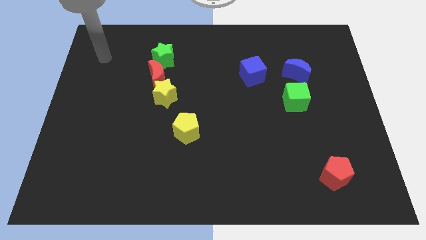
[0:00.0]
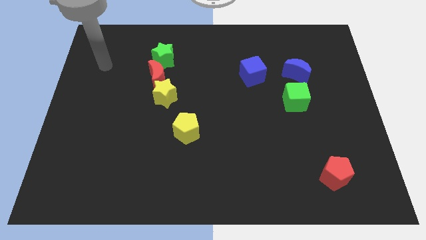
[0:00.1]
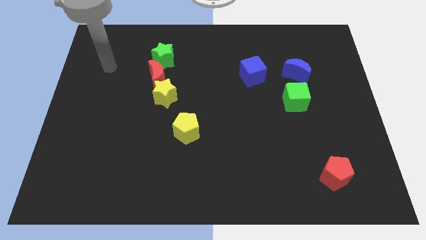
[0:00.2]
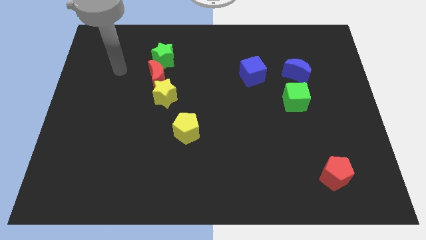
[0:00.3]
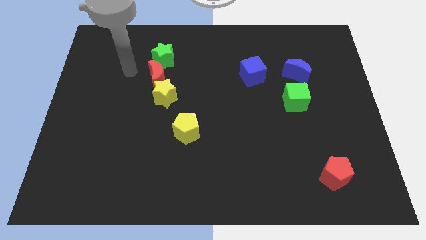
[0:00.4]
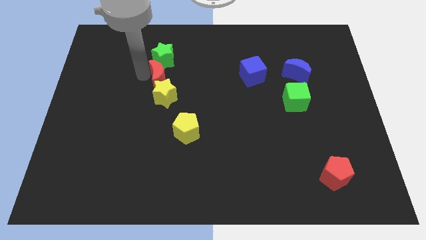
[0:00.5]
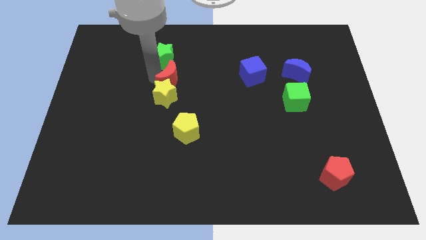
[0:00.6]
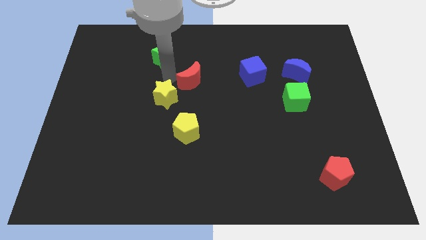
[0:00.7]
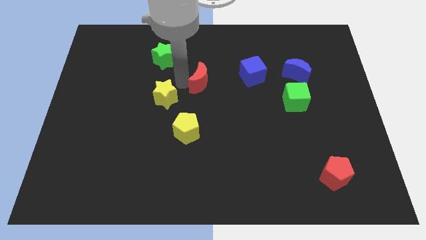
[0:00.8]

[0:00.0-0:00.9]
separate the yellow star from the red moon

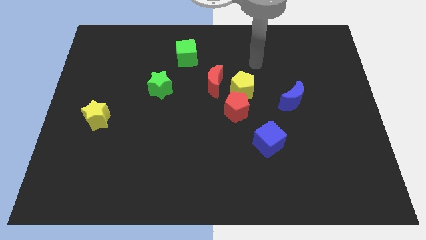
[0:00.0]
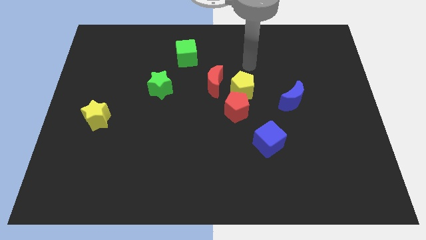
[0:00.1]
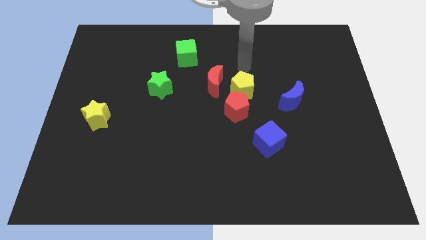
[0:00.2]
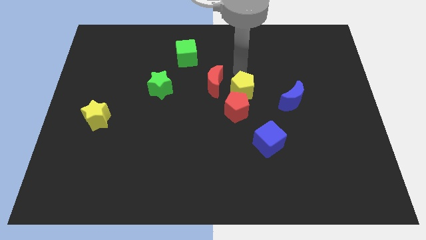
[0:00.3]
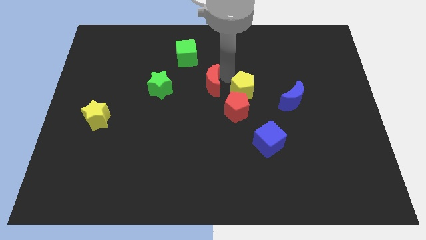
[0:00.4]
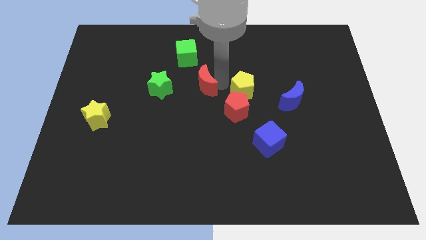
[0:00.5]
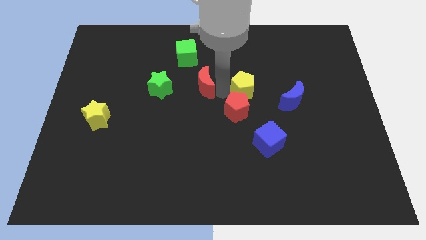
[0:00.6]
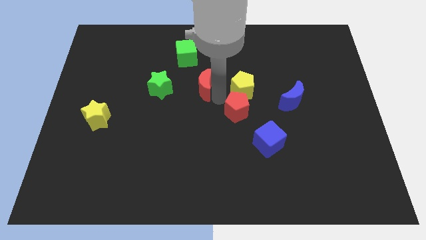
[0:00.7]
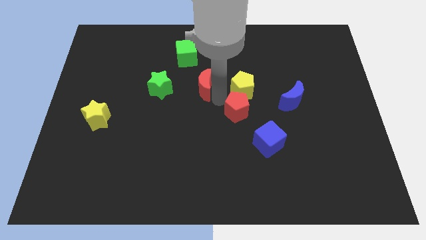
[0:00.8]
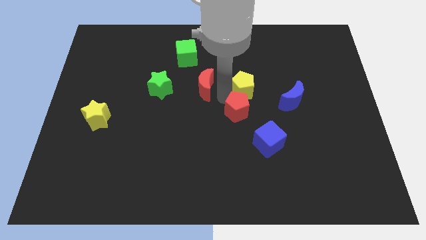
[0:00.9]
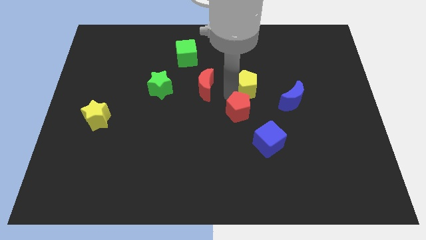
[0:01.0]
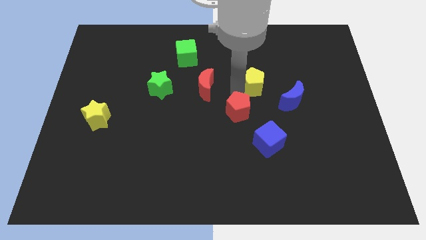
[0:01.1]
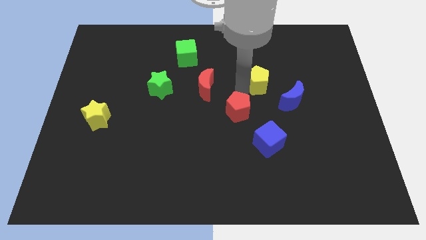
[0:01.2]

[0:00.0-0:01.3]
pull the yellow pentagon apart from the red pentagon and red moon

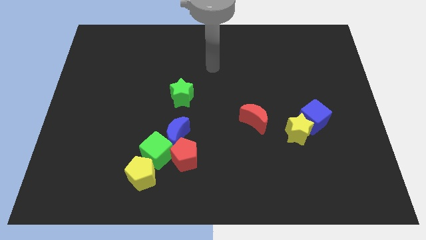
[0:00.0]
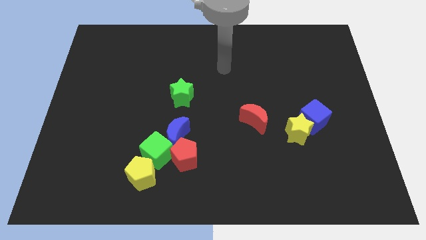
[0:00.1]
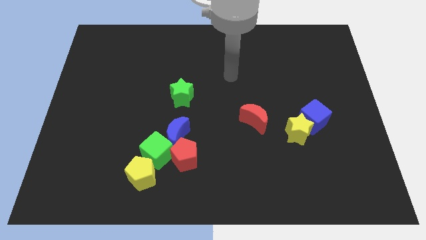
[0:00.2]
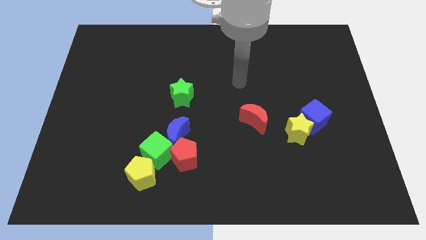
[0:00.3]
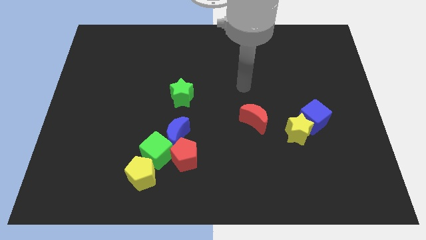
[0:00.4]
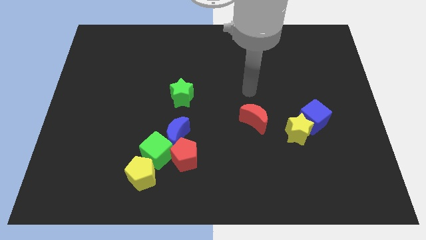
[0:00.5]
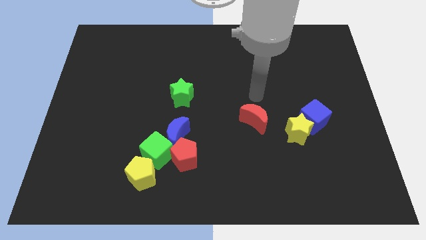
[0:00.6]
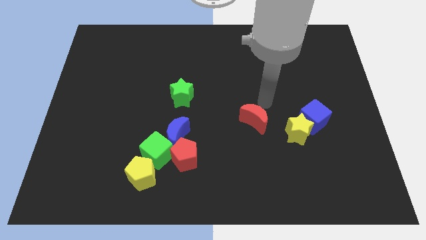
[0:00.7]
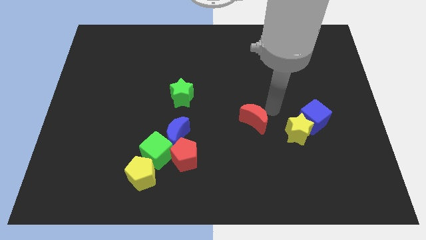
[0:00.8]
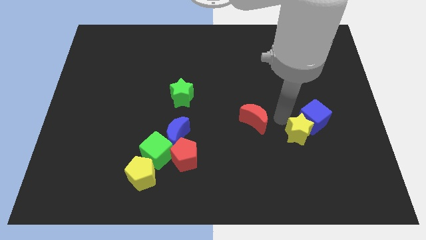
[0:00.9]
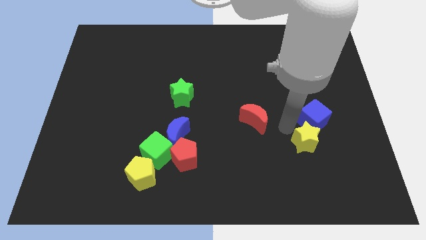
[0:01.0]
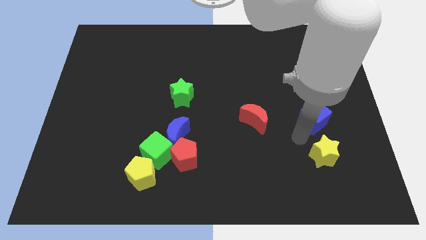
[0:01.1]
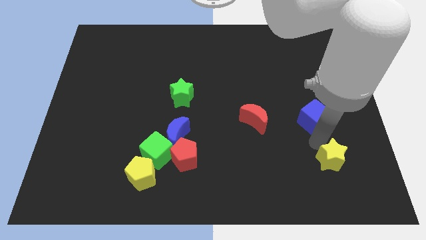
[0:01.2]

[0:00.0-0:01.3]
pull the blue cube apart from the yellow star

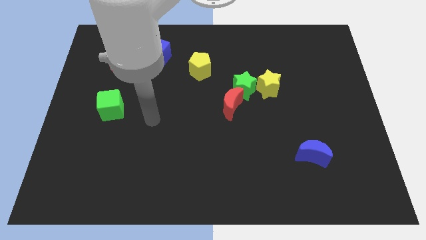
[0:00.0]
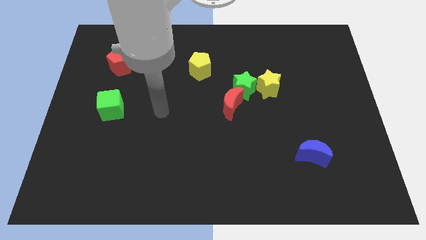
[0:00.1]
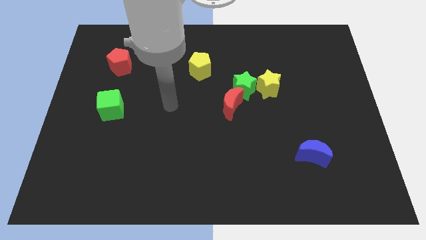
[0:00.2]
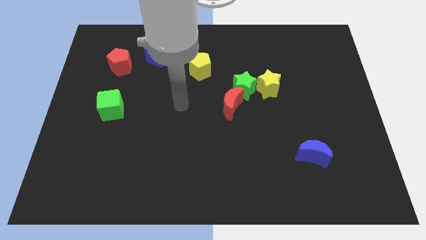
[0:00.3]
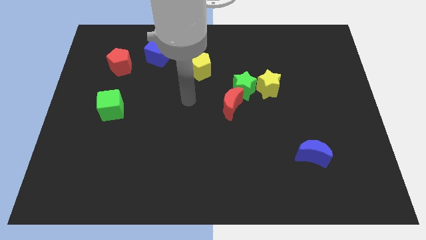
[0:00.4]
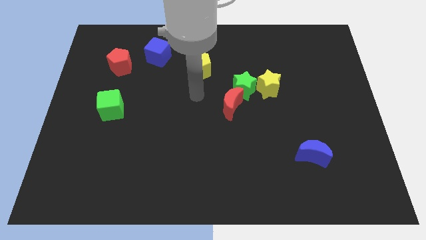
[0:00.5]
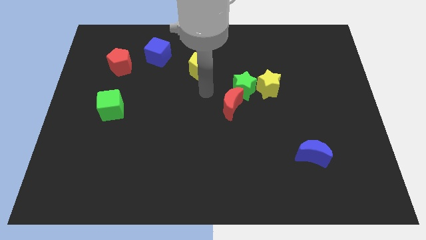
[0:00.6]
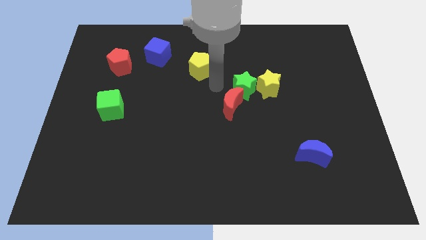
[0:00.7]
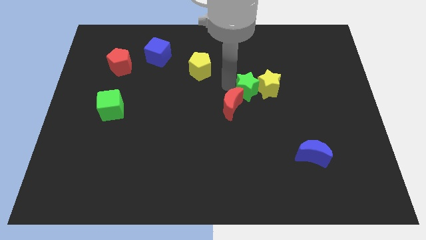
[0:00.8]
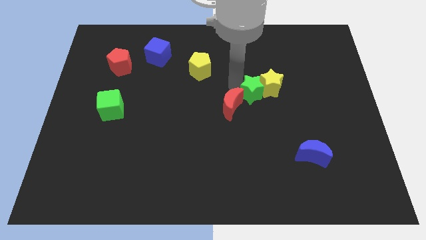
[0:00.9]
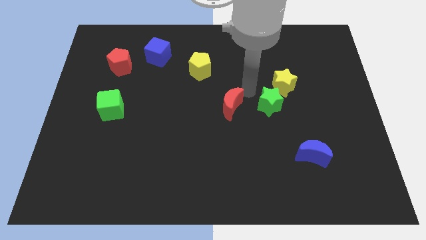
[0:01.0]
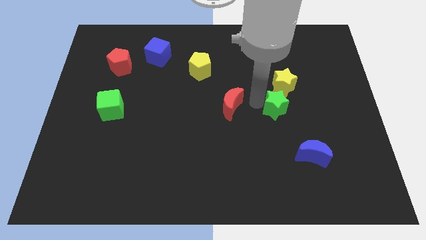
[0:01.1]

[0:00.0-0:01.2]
pull the red moon apart from the green star

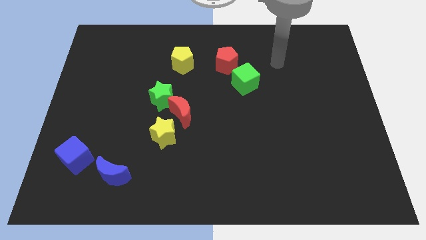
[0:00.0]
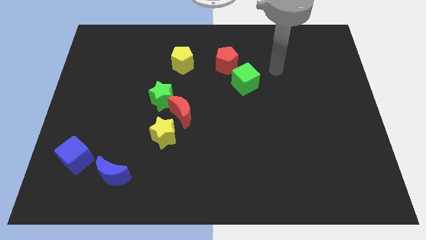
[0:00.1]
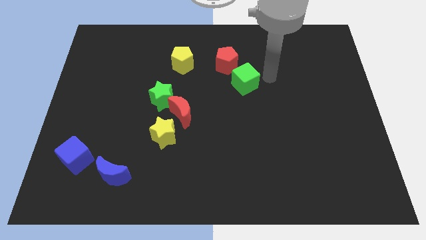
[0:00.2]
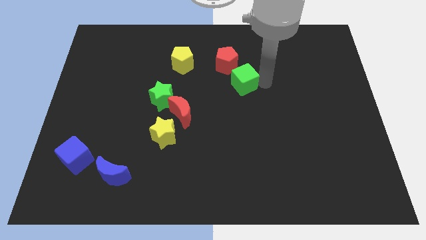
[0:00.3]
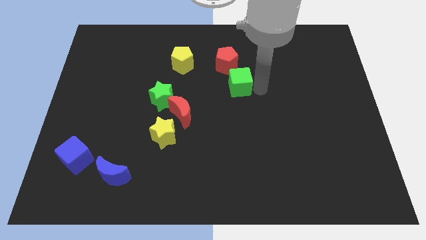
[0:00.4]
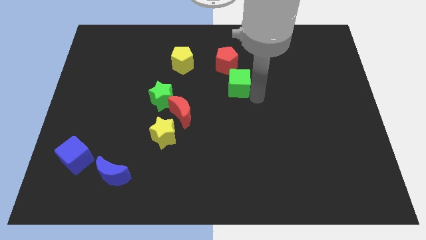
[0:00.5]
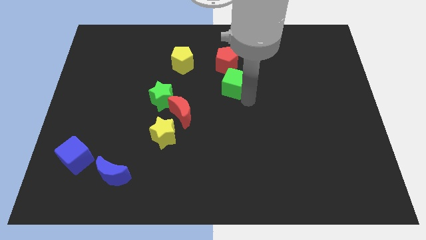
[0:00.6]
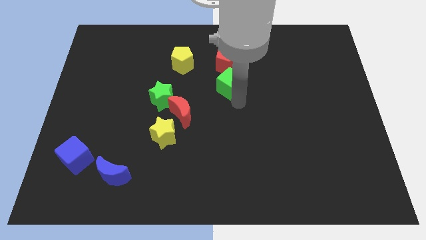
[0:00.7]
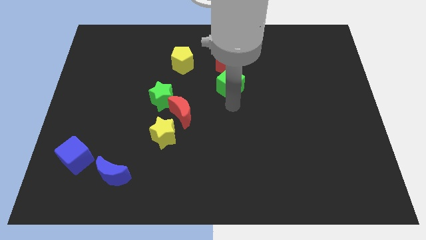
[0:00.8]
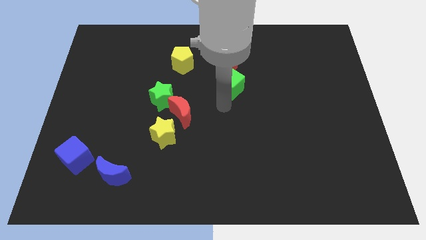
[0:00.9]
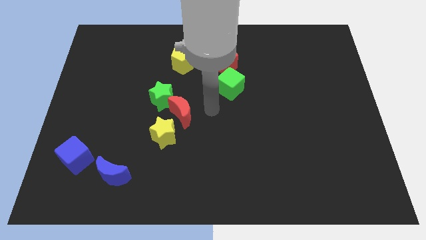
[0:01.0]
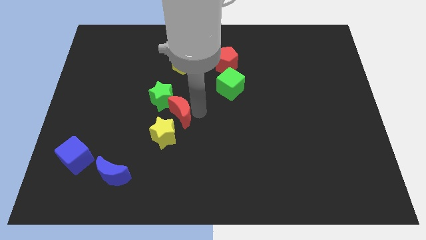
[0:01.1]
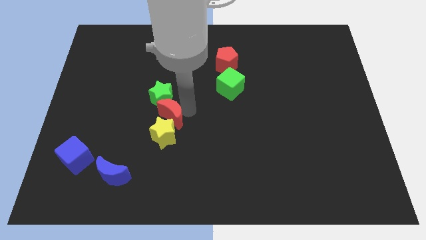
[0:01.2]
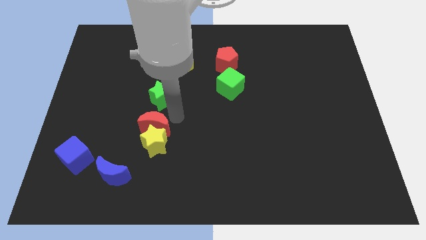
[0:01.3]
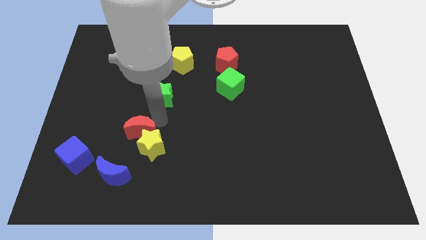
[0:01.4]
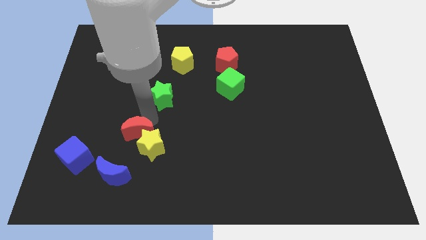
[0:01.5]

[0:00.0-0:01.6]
separate the green star from the red moon

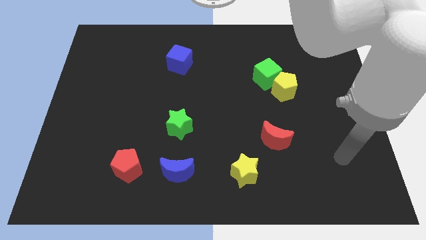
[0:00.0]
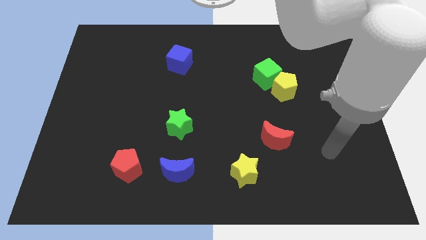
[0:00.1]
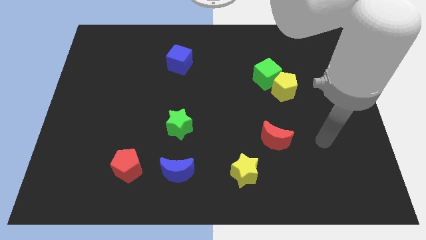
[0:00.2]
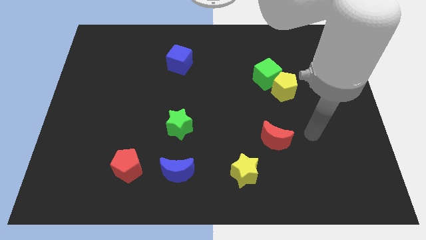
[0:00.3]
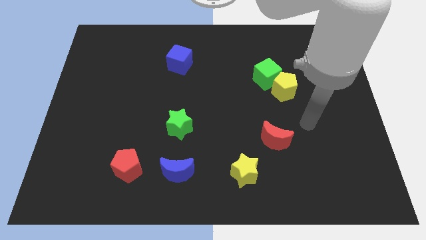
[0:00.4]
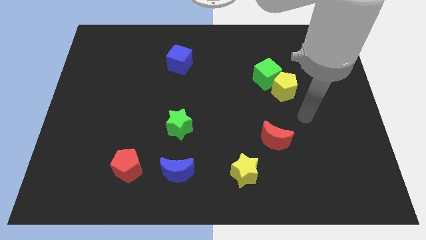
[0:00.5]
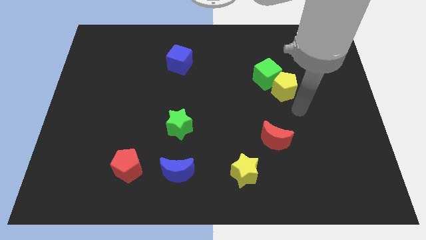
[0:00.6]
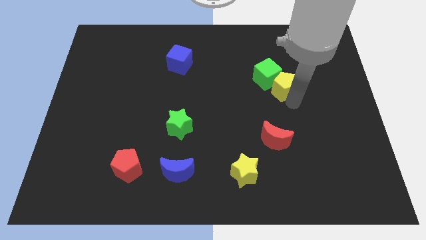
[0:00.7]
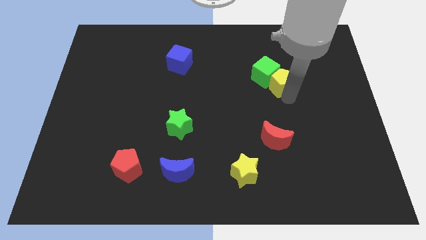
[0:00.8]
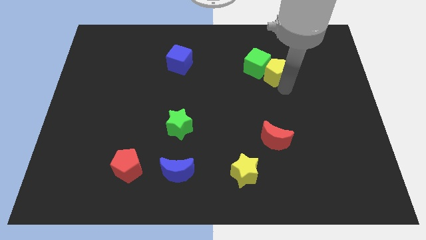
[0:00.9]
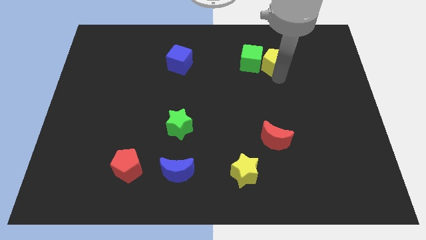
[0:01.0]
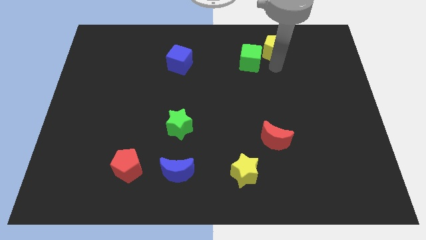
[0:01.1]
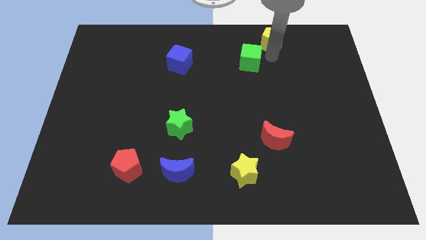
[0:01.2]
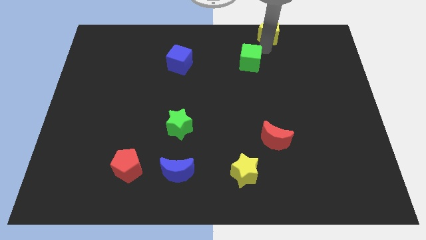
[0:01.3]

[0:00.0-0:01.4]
move the green cube away from the yellow pentagon

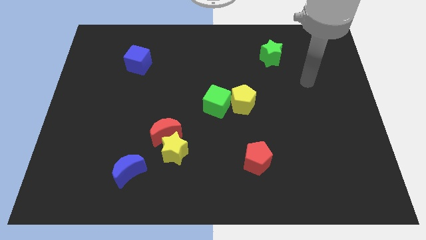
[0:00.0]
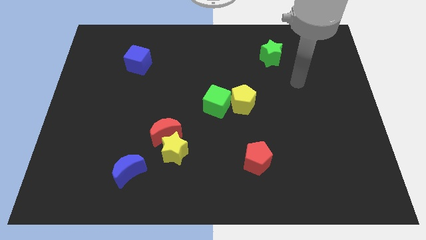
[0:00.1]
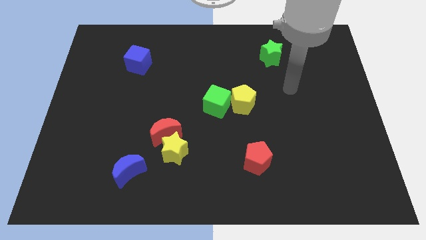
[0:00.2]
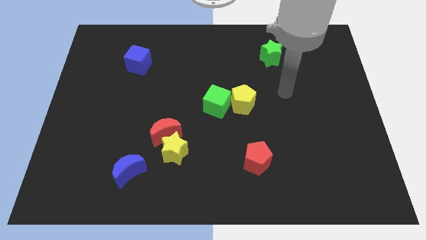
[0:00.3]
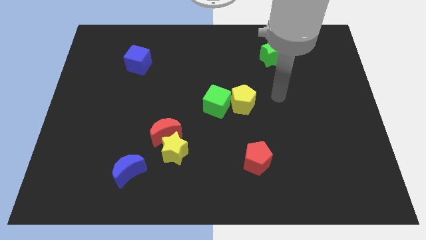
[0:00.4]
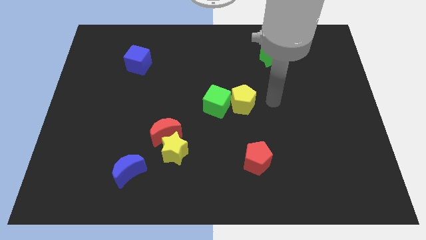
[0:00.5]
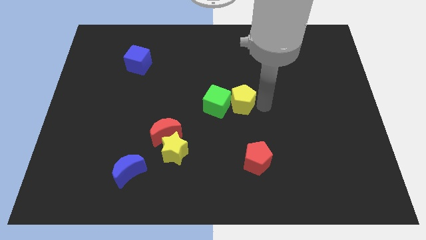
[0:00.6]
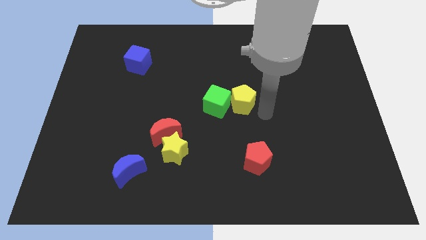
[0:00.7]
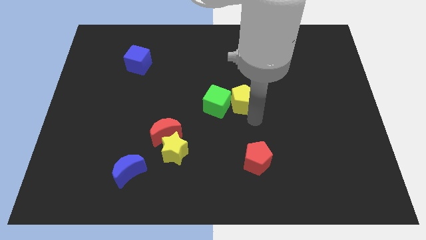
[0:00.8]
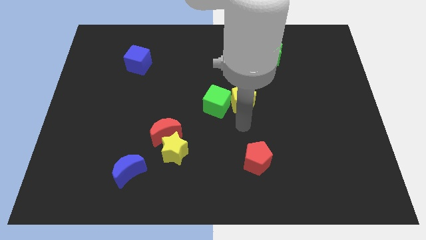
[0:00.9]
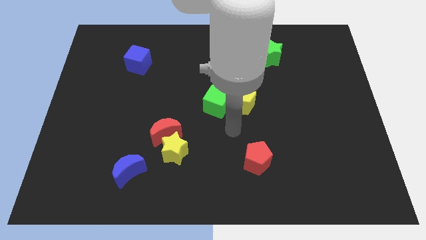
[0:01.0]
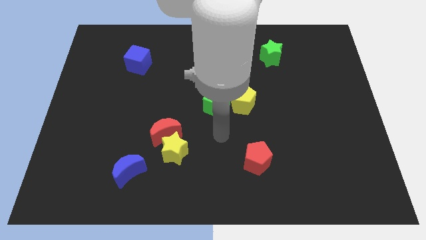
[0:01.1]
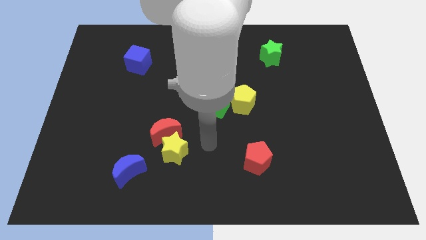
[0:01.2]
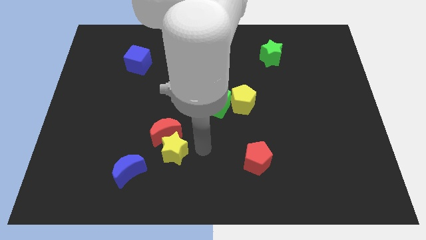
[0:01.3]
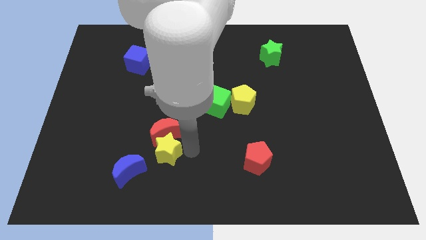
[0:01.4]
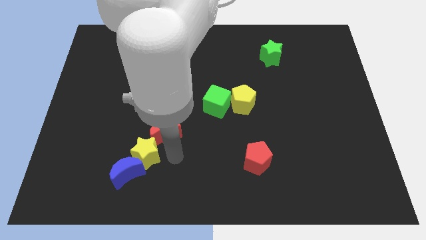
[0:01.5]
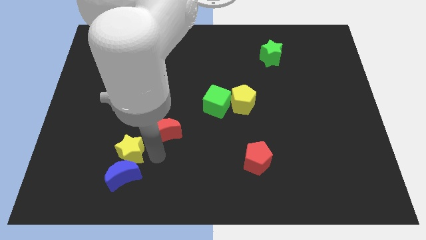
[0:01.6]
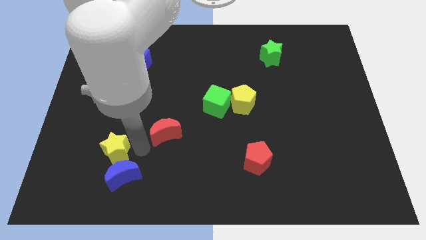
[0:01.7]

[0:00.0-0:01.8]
pull the red moon apart from the yellow star
